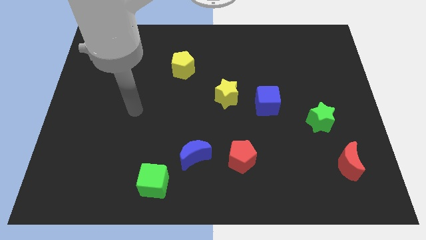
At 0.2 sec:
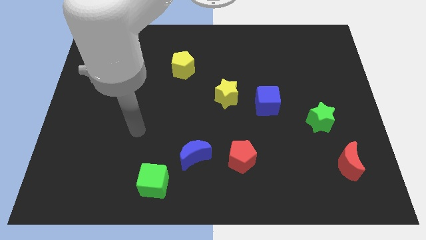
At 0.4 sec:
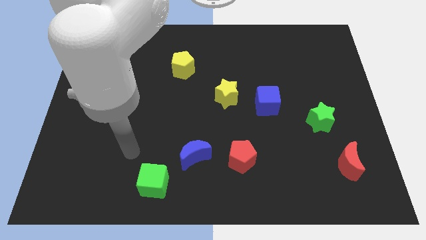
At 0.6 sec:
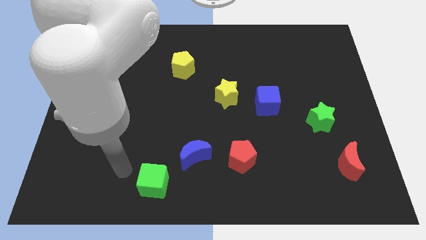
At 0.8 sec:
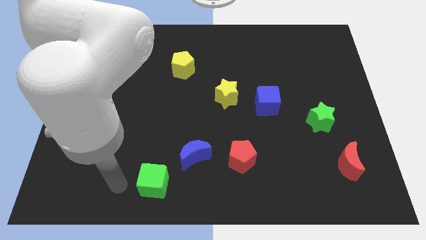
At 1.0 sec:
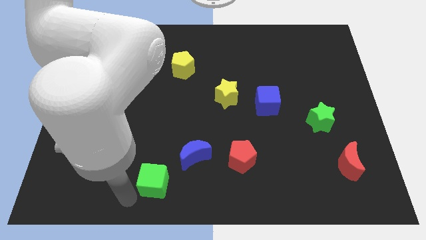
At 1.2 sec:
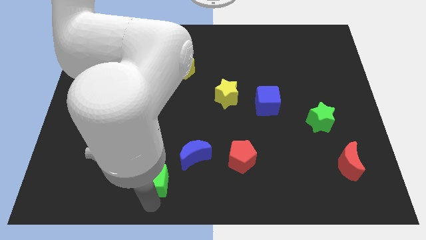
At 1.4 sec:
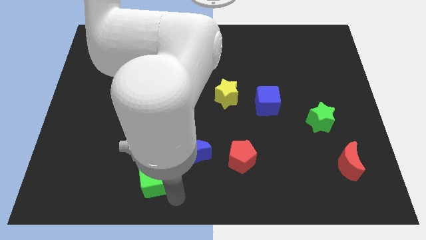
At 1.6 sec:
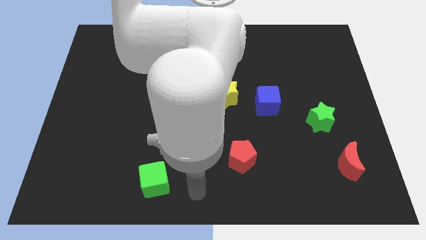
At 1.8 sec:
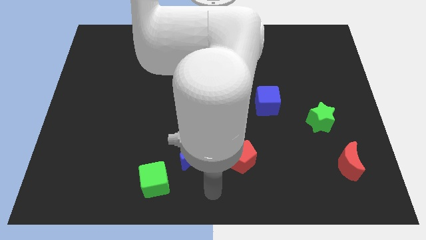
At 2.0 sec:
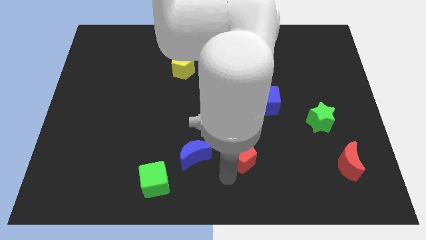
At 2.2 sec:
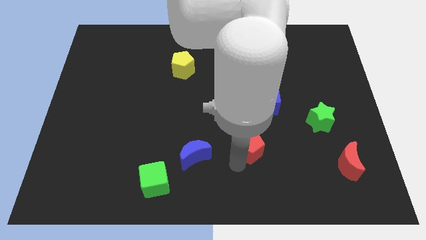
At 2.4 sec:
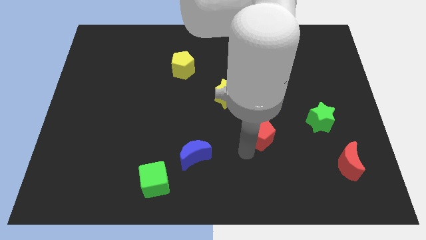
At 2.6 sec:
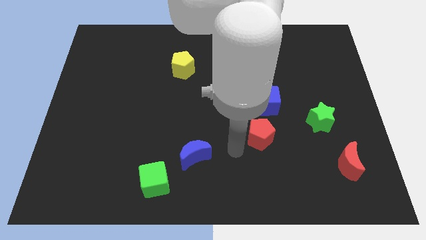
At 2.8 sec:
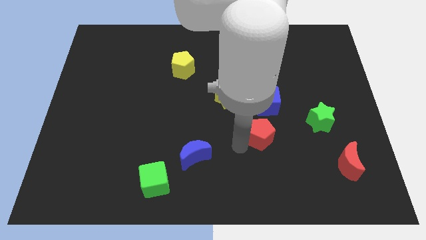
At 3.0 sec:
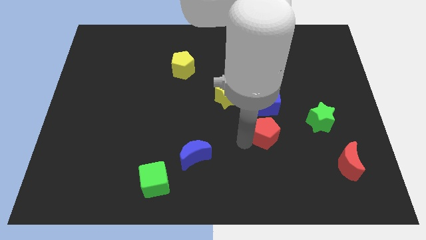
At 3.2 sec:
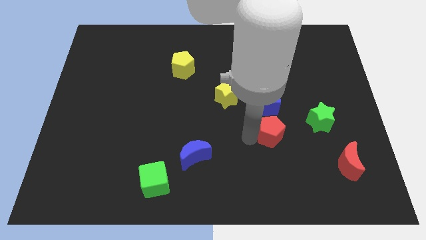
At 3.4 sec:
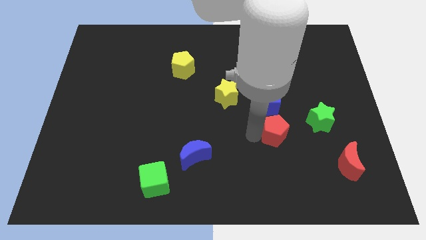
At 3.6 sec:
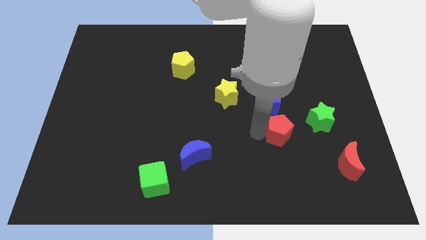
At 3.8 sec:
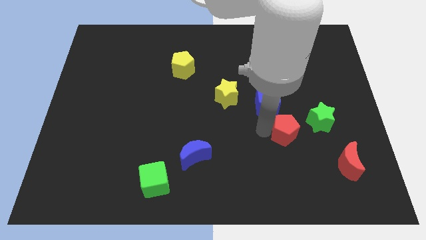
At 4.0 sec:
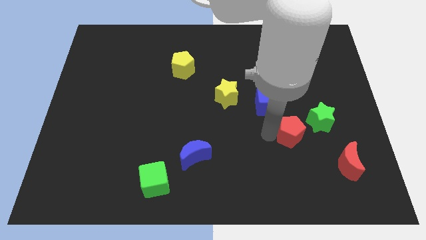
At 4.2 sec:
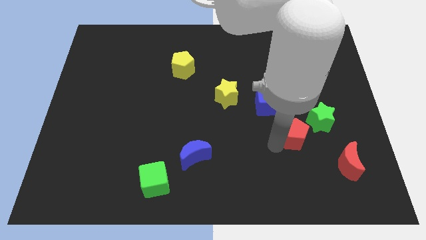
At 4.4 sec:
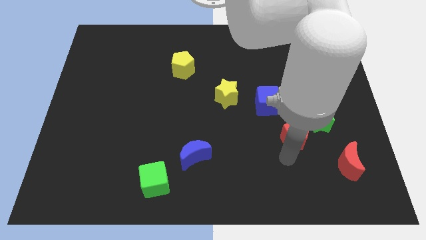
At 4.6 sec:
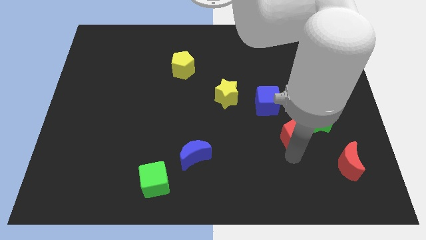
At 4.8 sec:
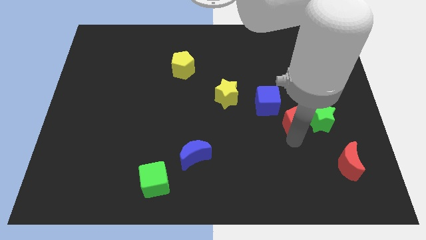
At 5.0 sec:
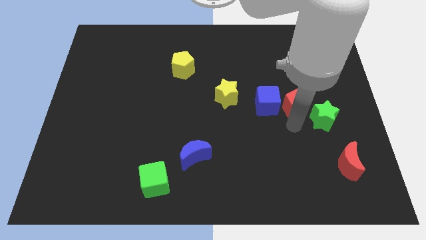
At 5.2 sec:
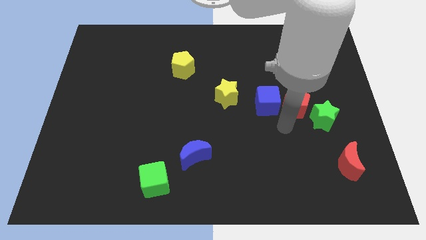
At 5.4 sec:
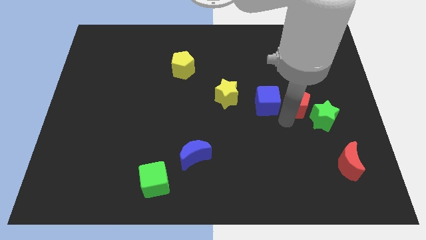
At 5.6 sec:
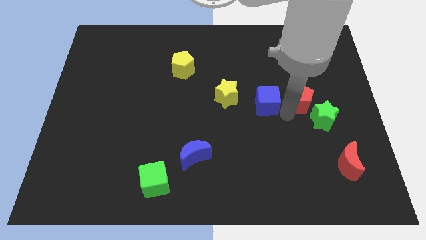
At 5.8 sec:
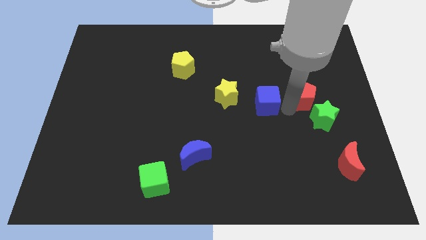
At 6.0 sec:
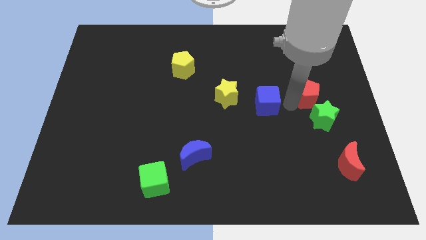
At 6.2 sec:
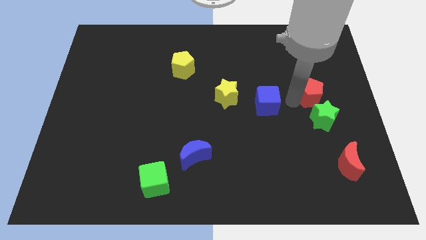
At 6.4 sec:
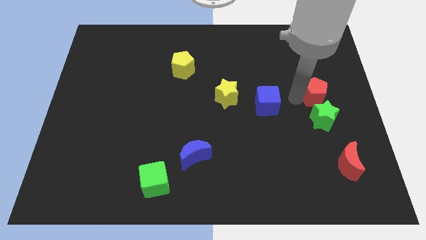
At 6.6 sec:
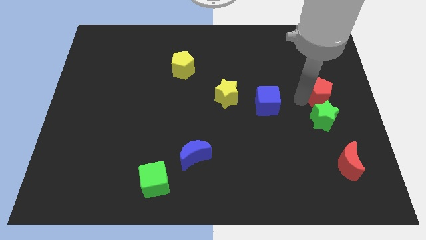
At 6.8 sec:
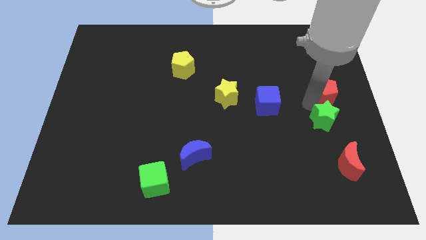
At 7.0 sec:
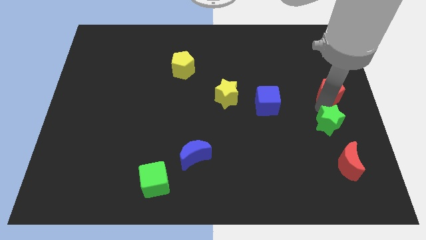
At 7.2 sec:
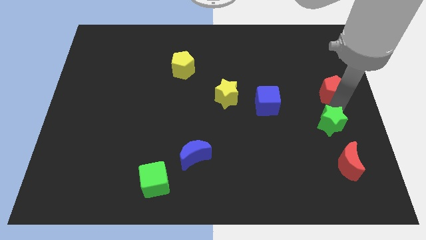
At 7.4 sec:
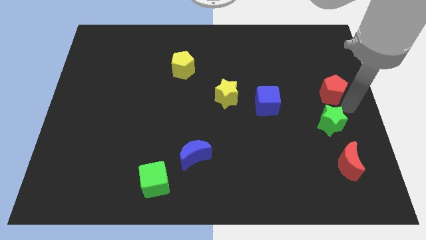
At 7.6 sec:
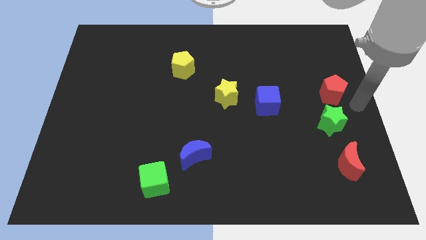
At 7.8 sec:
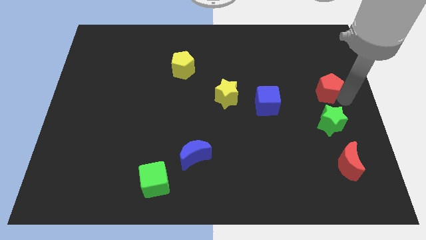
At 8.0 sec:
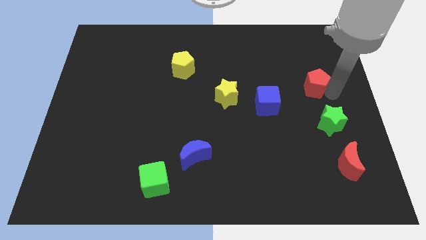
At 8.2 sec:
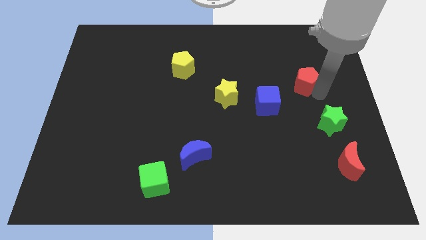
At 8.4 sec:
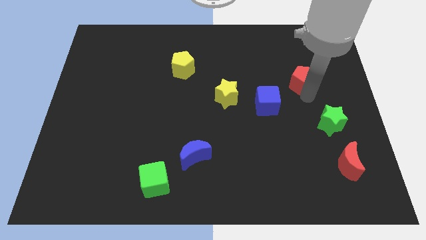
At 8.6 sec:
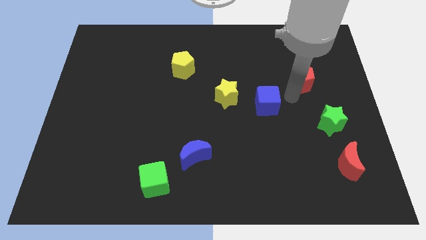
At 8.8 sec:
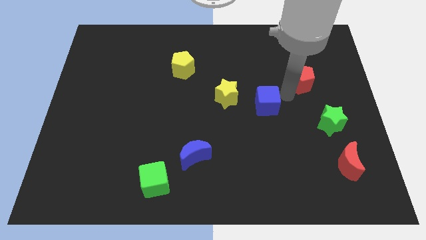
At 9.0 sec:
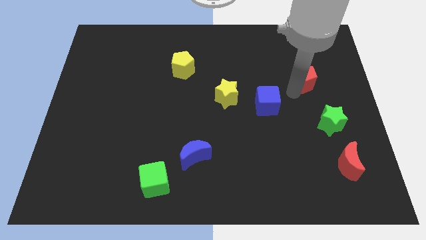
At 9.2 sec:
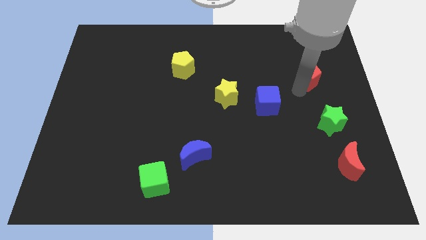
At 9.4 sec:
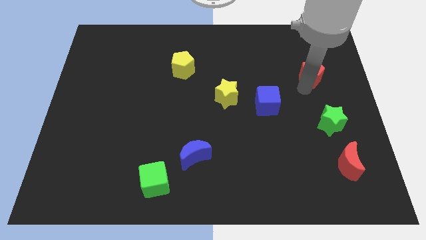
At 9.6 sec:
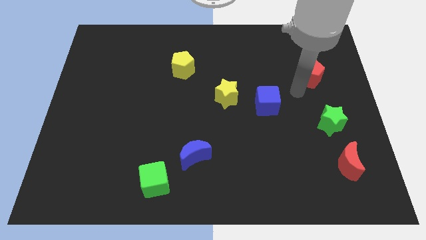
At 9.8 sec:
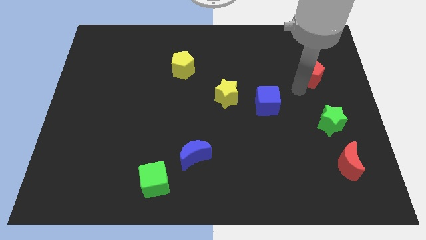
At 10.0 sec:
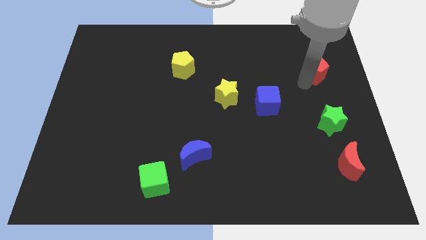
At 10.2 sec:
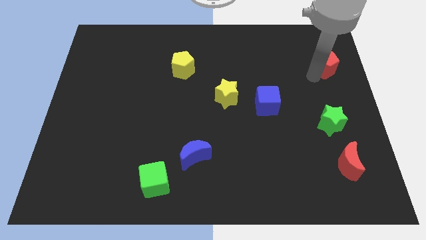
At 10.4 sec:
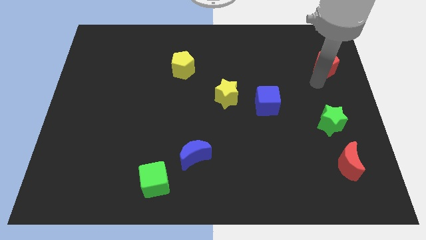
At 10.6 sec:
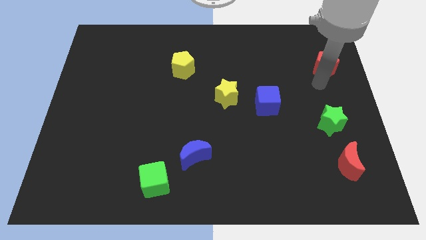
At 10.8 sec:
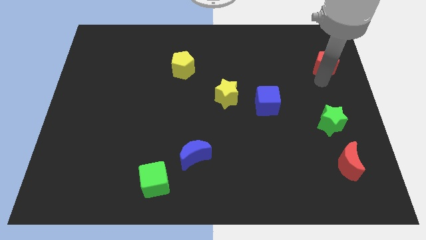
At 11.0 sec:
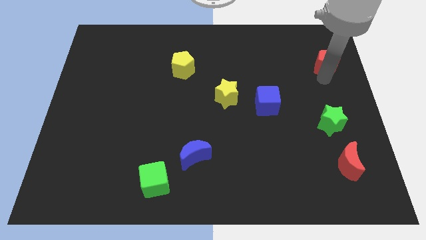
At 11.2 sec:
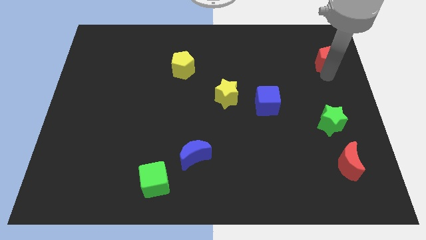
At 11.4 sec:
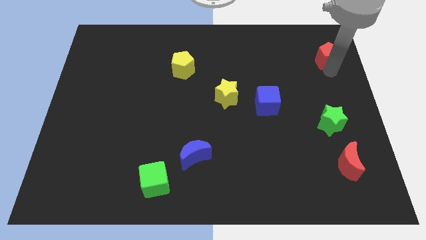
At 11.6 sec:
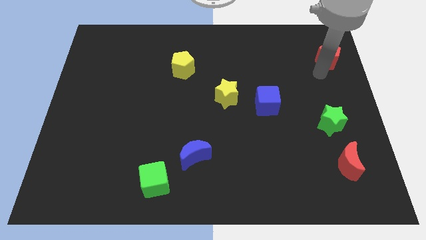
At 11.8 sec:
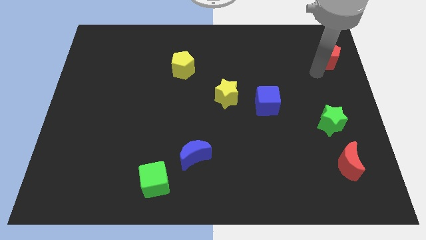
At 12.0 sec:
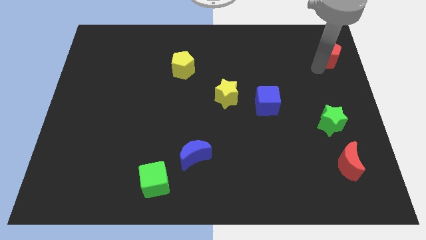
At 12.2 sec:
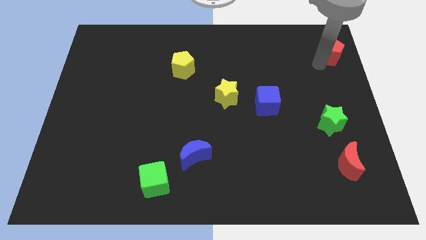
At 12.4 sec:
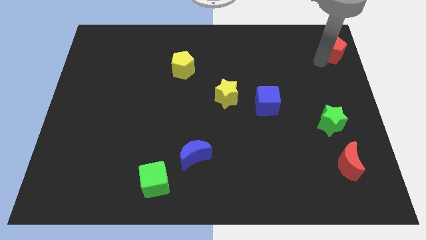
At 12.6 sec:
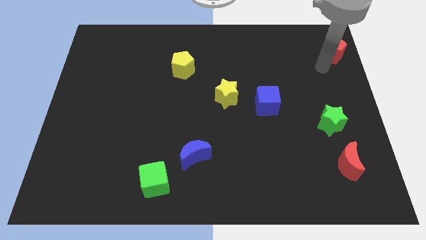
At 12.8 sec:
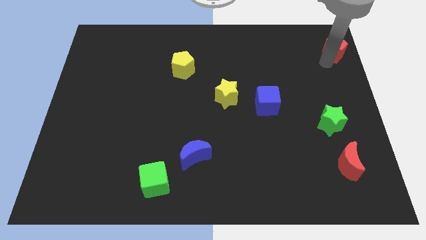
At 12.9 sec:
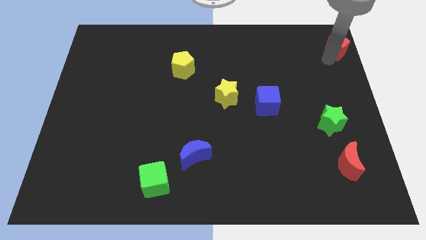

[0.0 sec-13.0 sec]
push the red pentagon to the upper right corner
